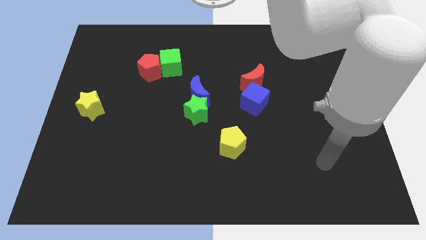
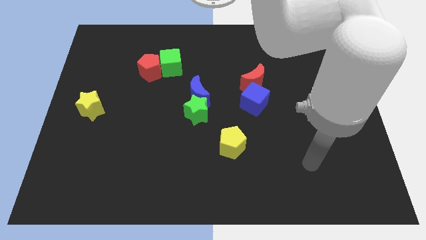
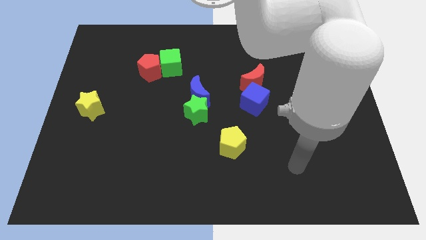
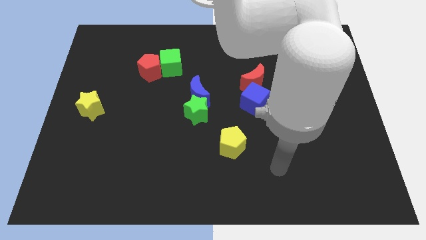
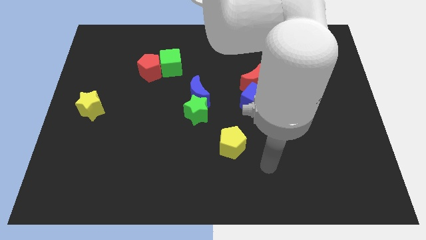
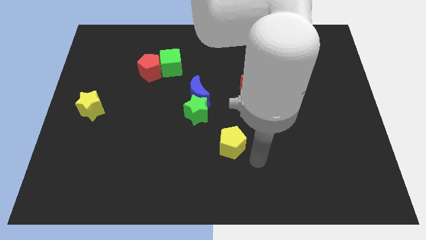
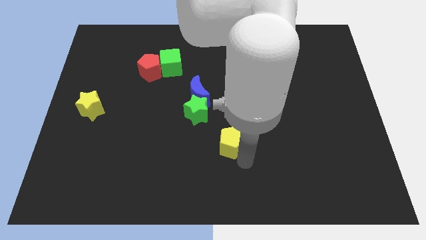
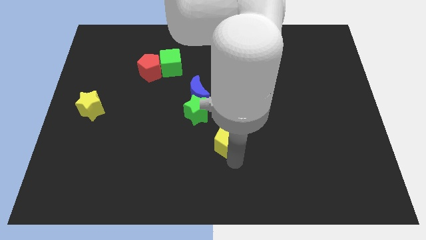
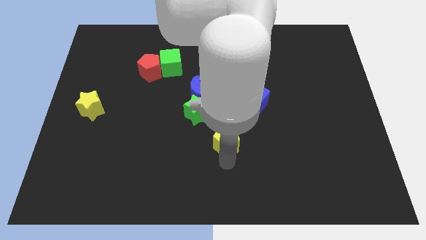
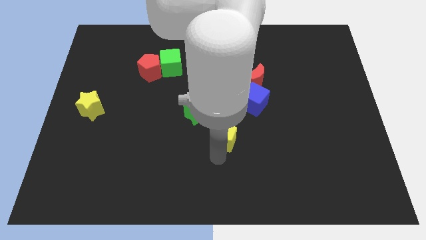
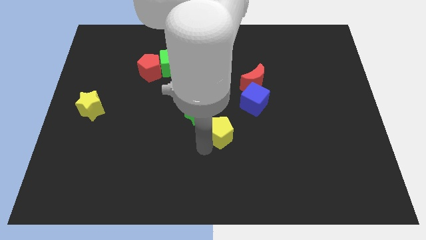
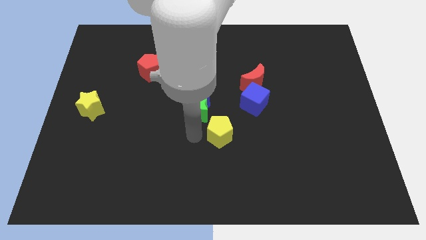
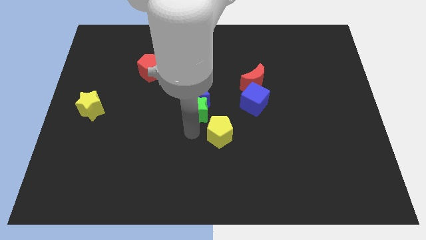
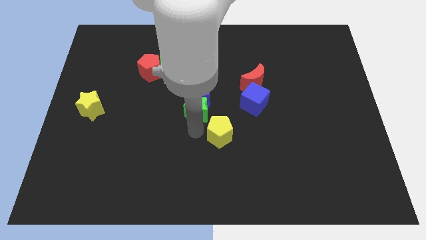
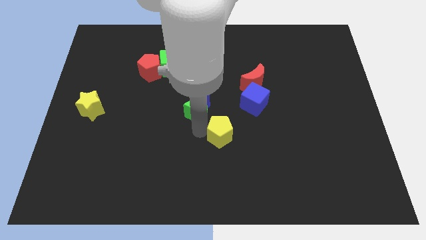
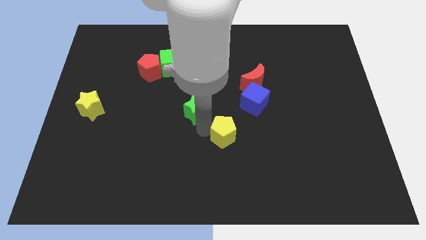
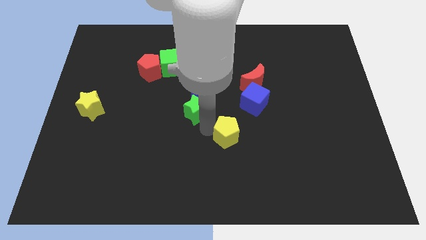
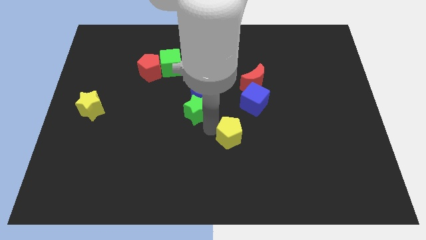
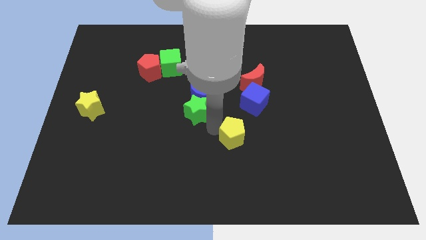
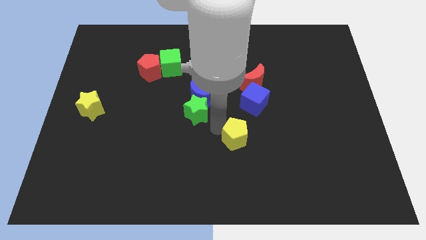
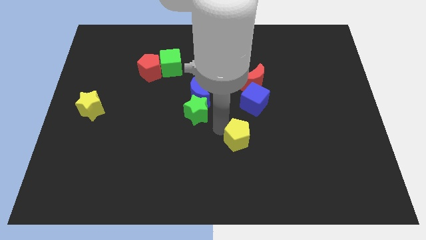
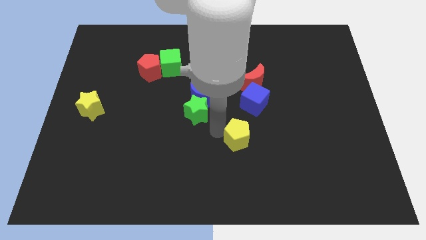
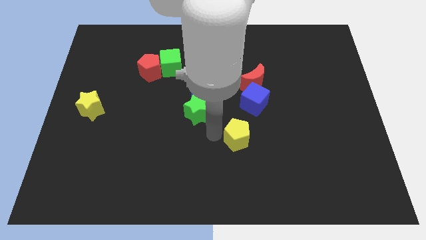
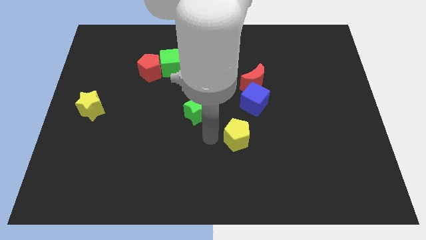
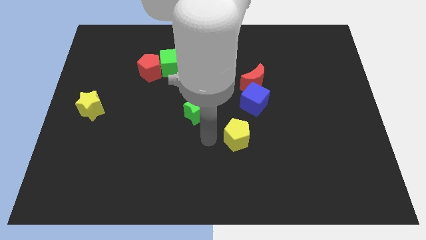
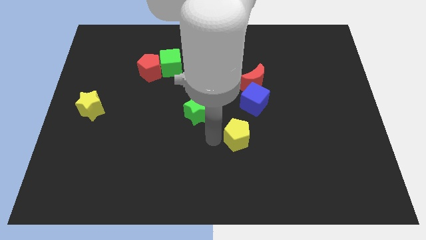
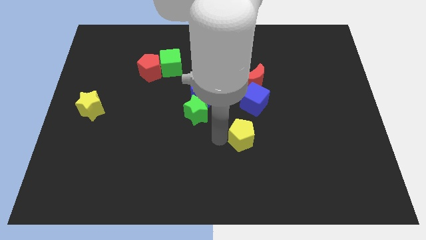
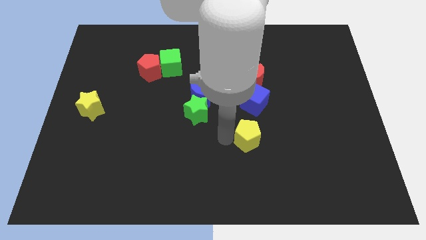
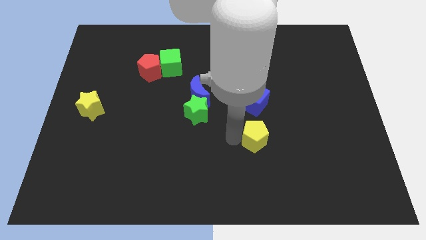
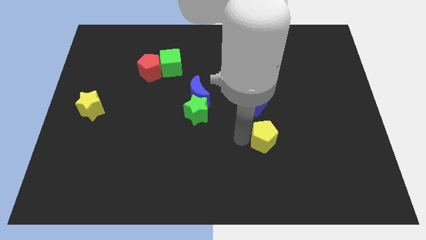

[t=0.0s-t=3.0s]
push the yellow pentagon slightly to the right

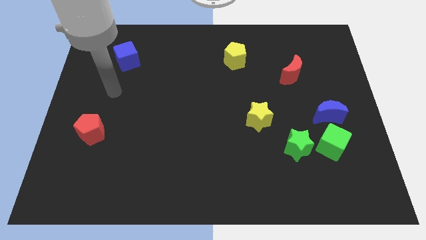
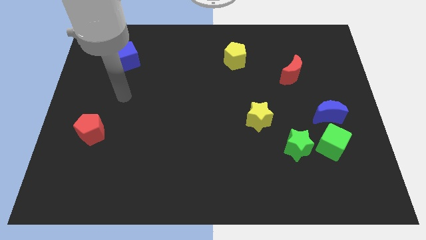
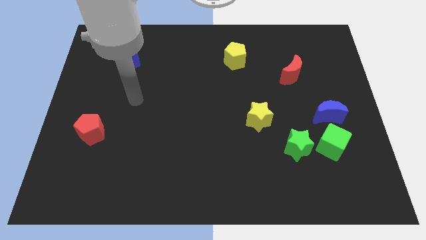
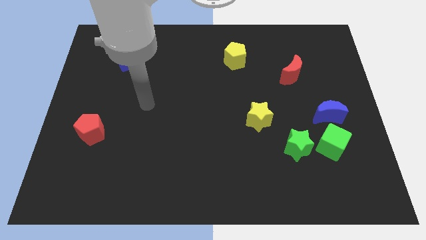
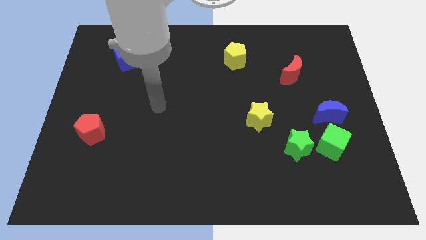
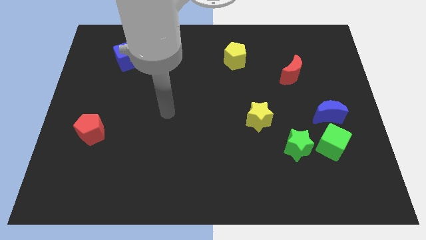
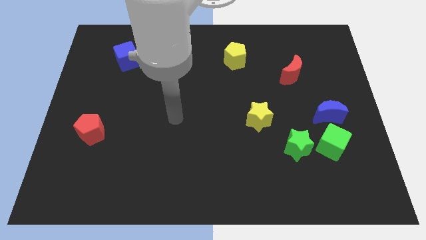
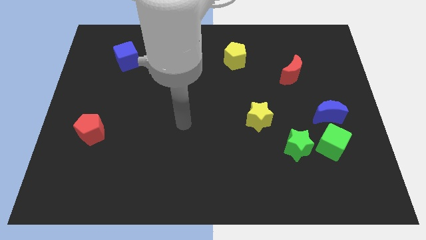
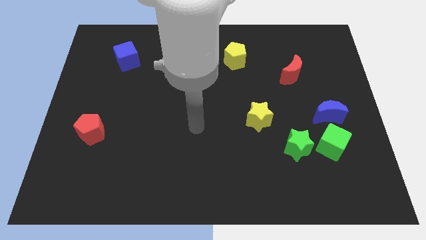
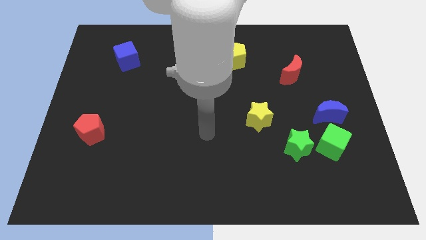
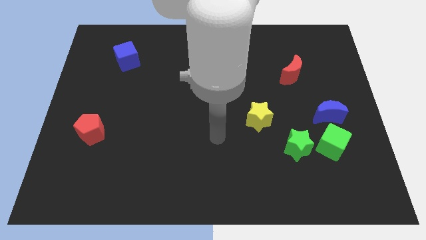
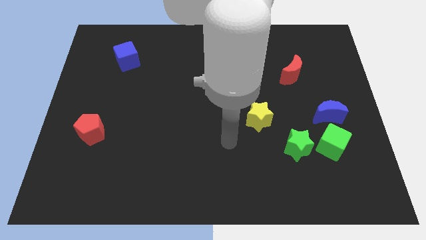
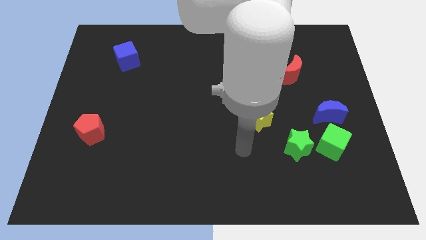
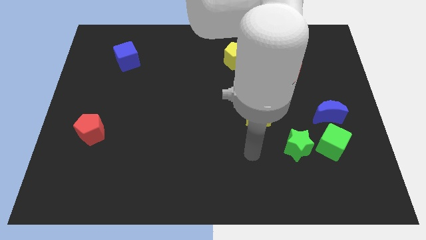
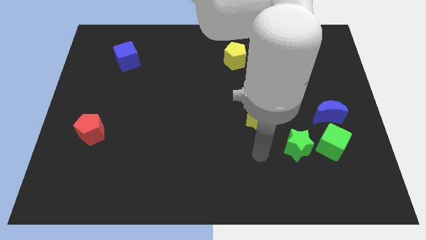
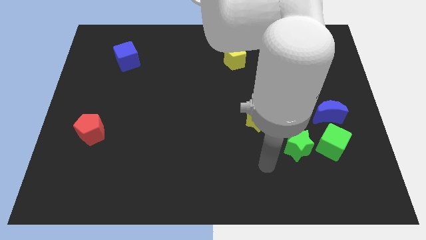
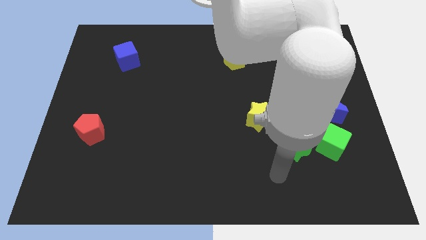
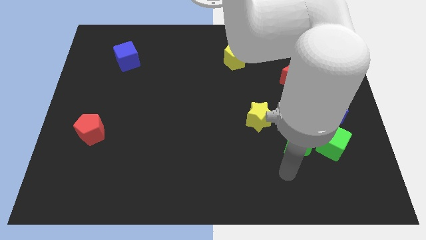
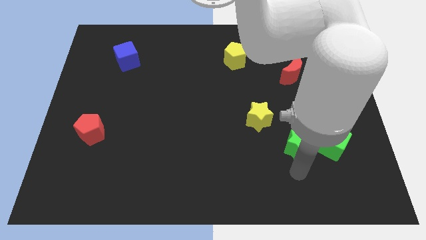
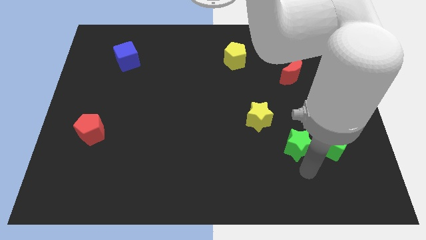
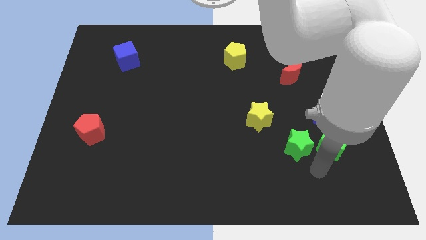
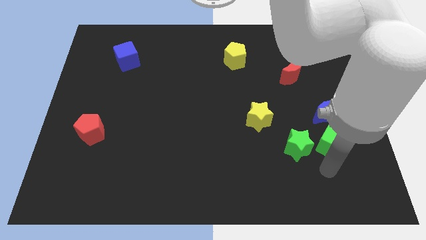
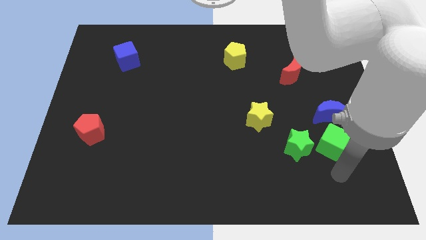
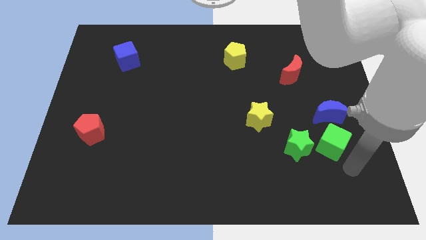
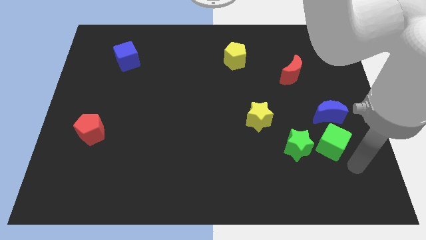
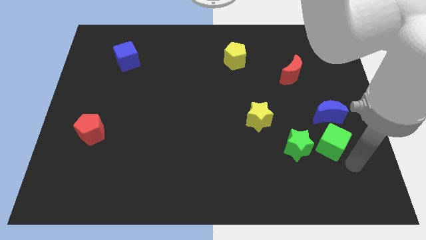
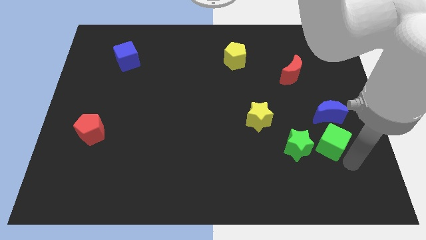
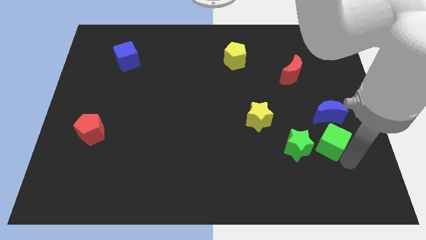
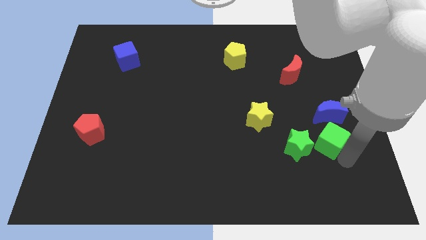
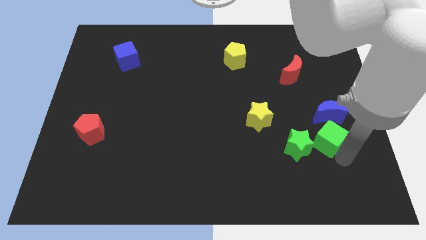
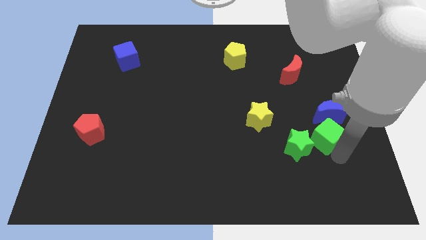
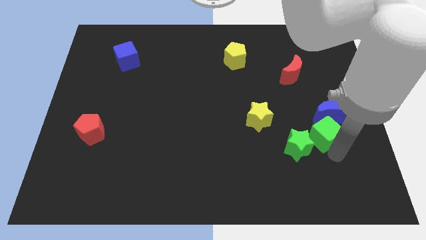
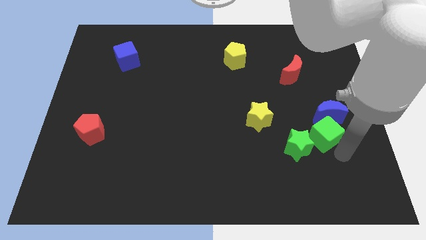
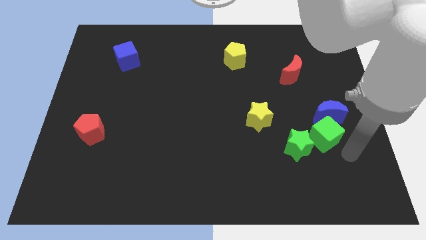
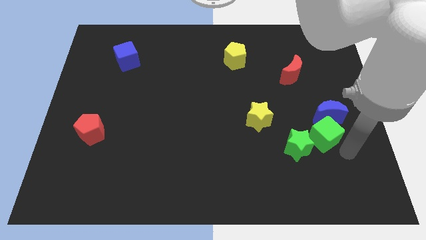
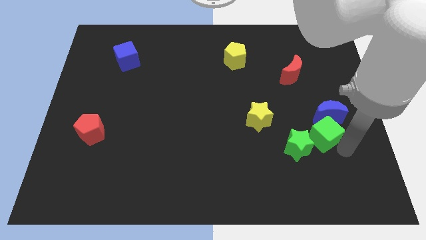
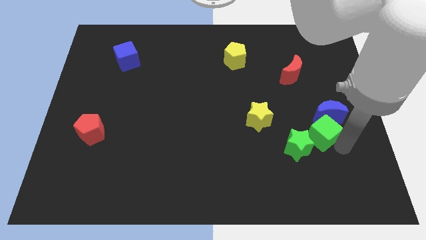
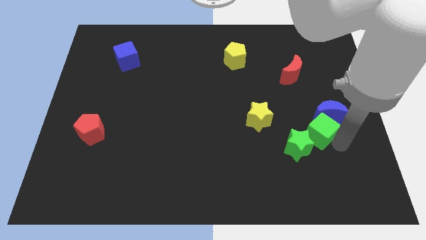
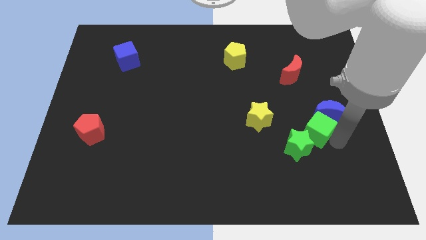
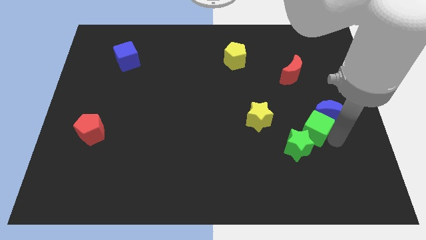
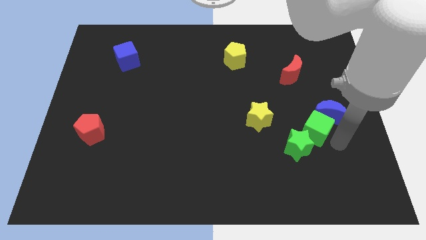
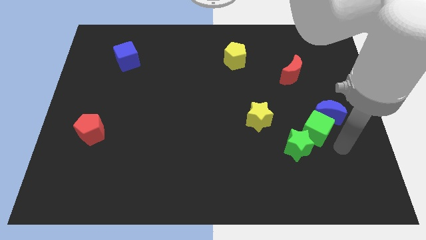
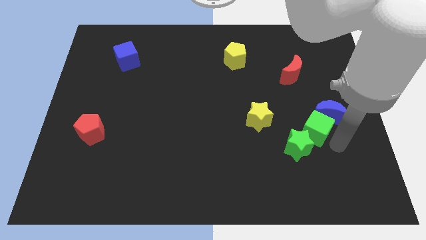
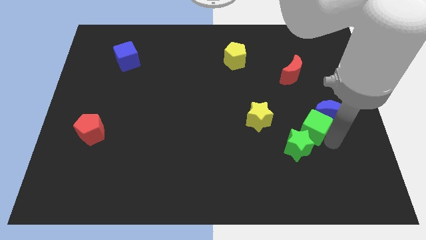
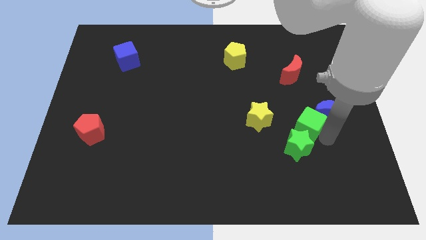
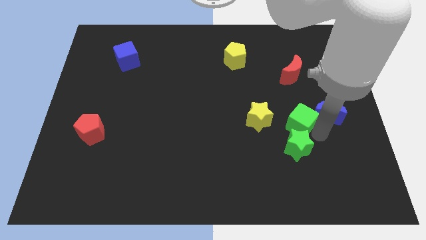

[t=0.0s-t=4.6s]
move the green cube upwards and then to the left a bit

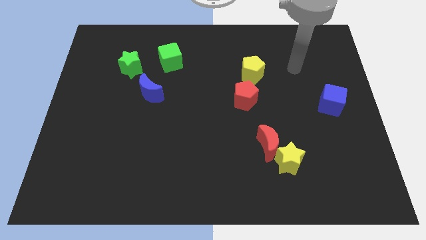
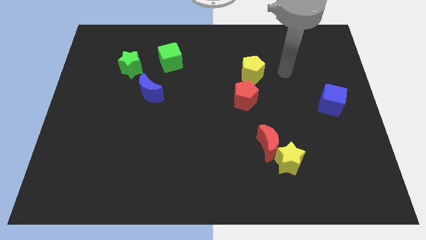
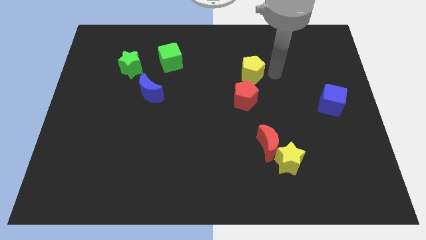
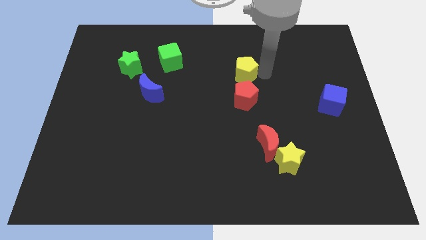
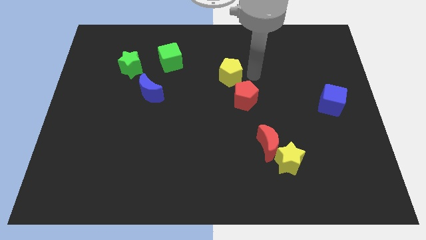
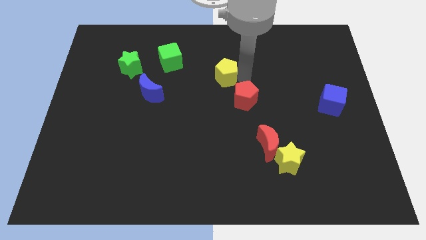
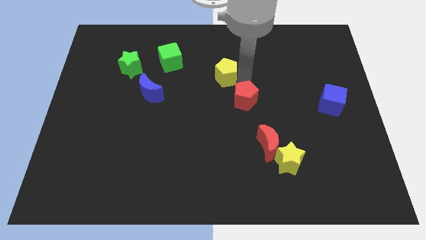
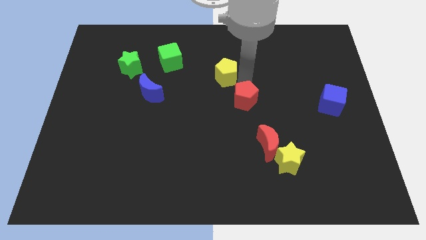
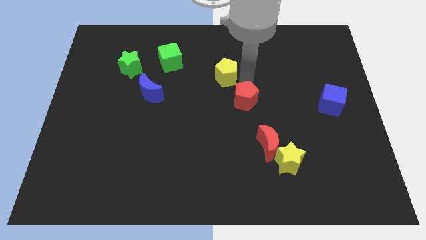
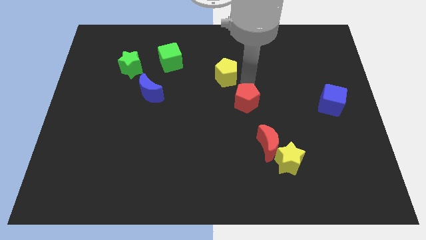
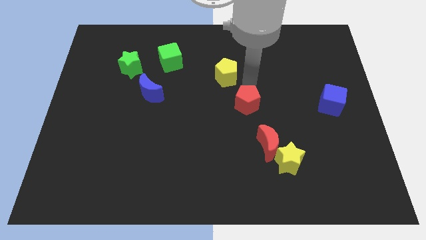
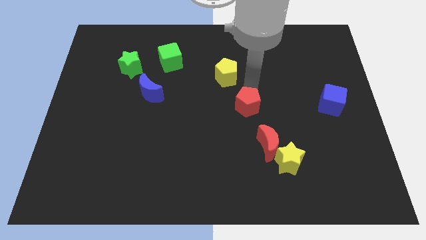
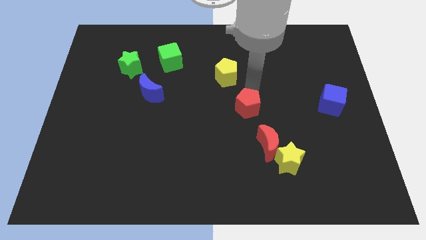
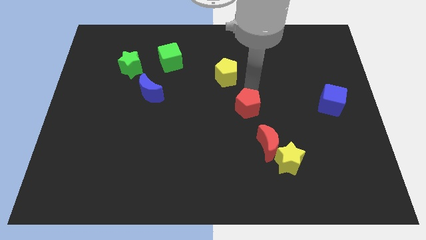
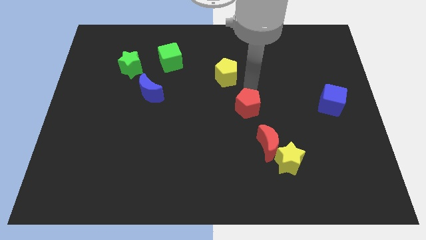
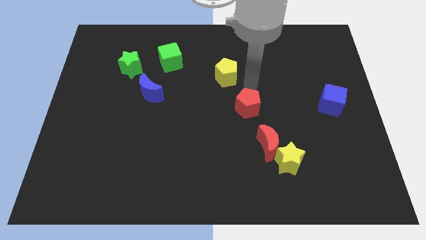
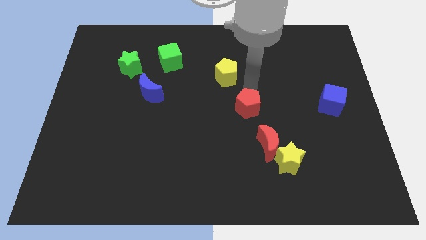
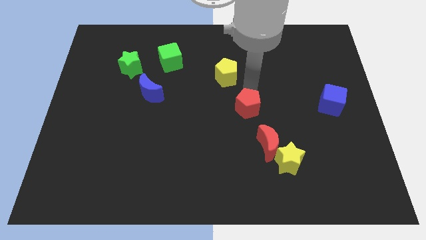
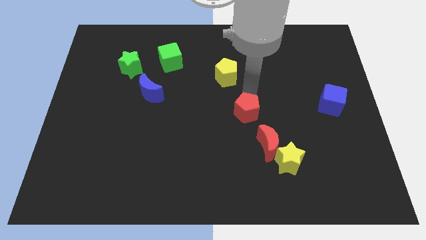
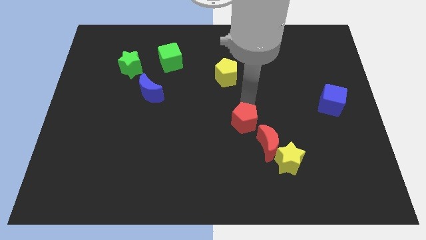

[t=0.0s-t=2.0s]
push the red pentagon down slightly
